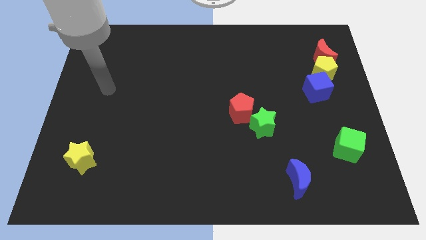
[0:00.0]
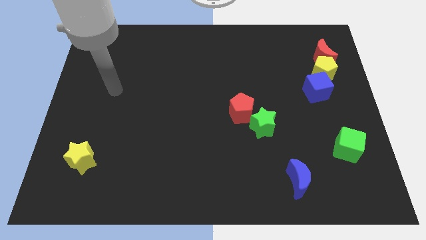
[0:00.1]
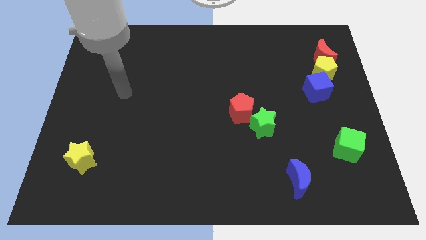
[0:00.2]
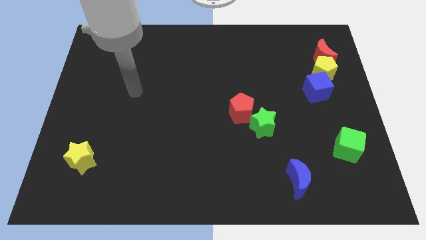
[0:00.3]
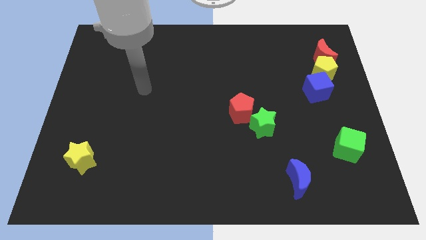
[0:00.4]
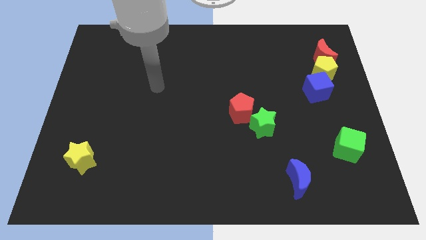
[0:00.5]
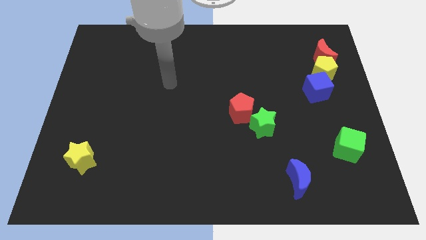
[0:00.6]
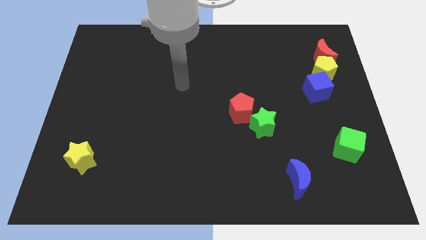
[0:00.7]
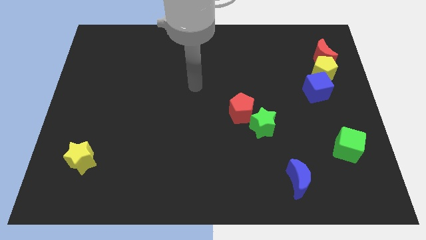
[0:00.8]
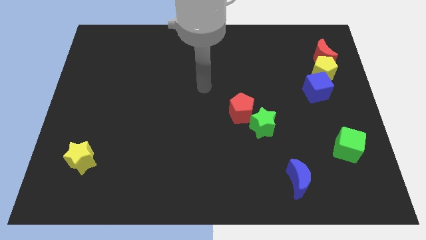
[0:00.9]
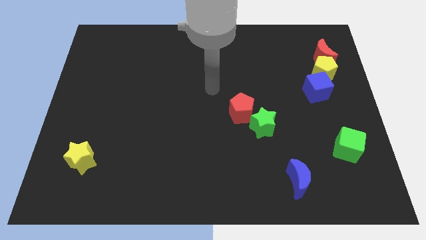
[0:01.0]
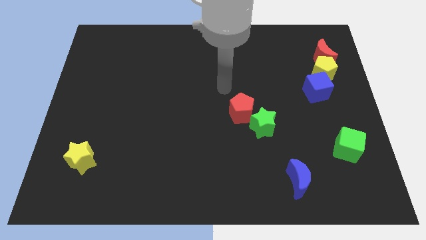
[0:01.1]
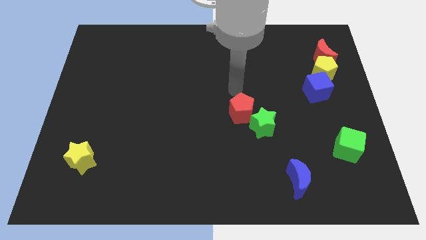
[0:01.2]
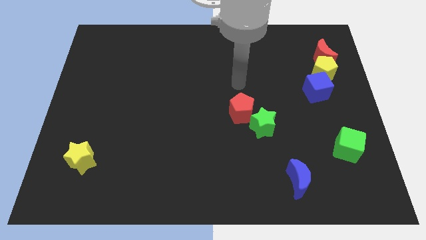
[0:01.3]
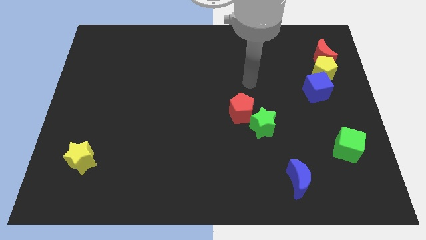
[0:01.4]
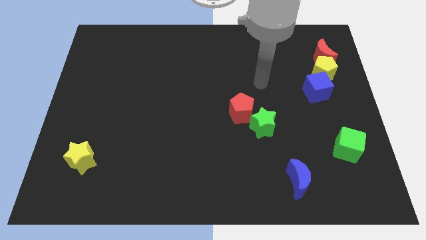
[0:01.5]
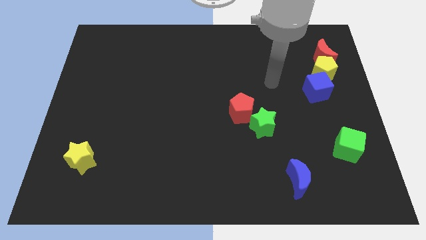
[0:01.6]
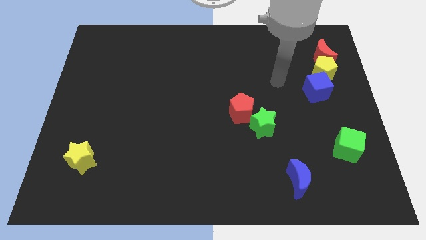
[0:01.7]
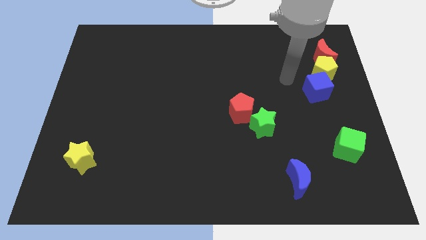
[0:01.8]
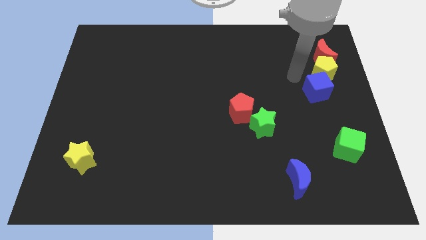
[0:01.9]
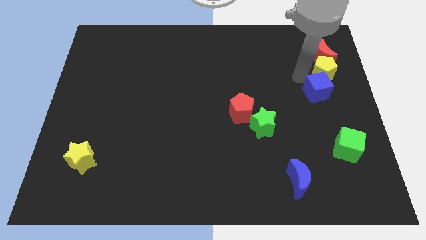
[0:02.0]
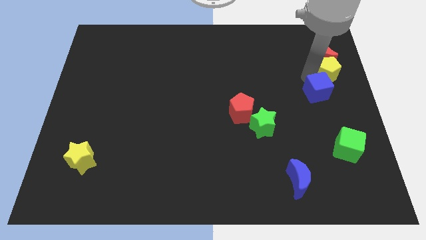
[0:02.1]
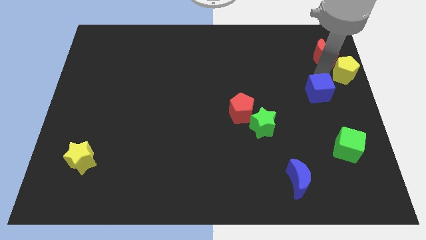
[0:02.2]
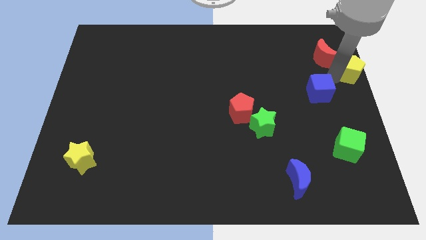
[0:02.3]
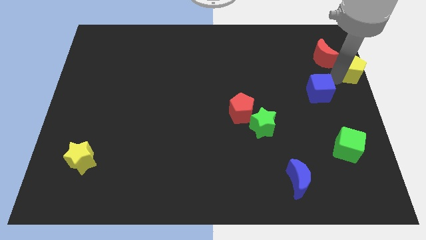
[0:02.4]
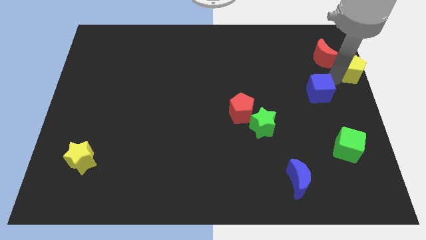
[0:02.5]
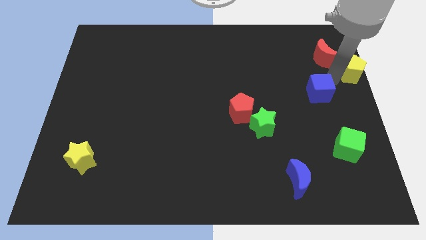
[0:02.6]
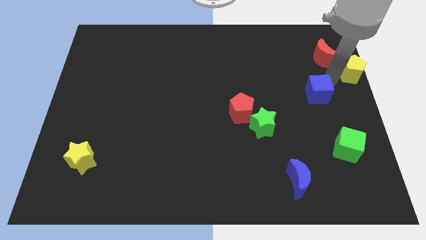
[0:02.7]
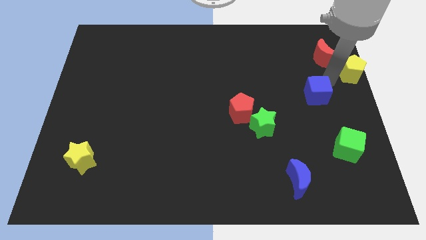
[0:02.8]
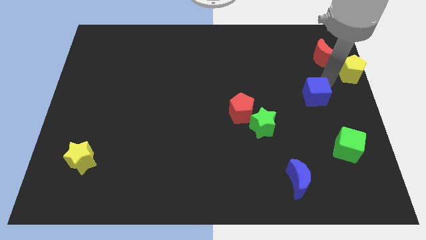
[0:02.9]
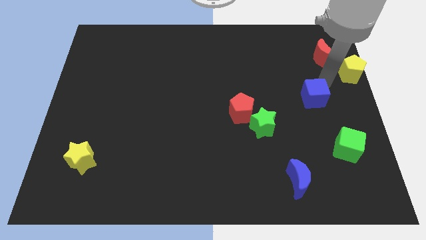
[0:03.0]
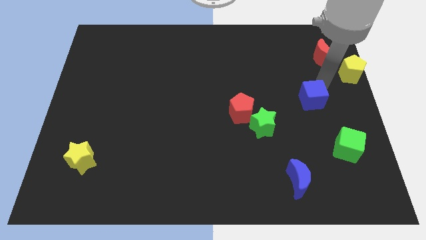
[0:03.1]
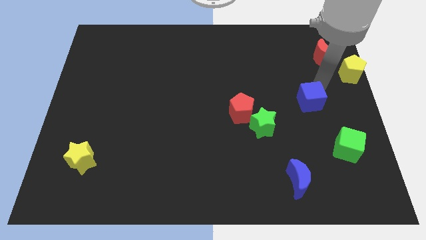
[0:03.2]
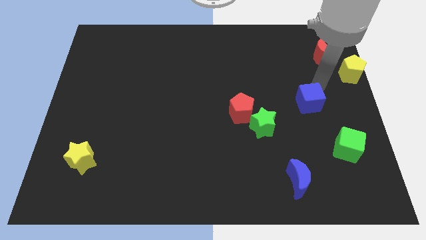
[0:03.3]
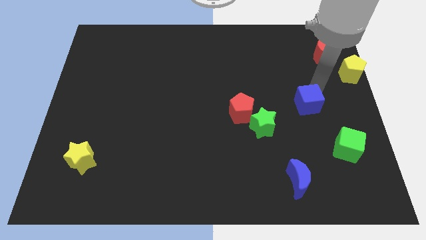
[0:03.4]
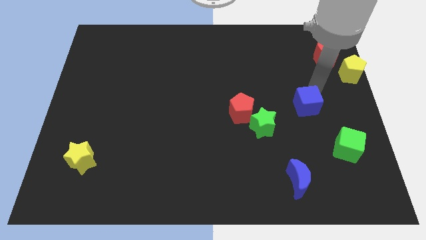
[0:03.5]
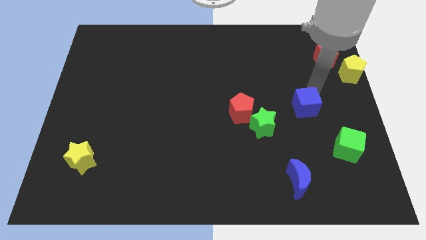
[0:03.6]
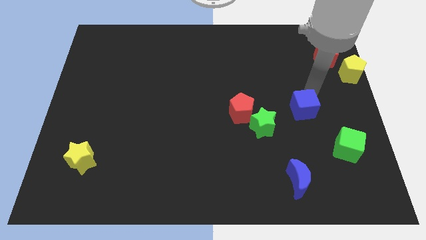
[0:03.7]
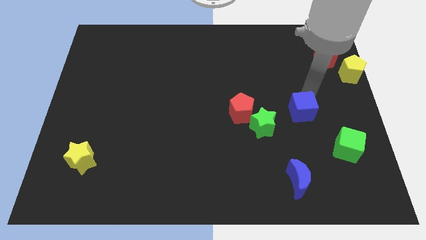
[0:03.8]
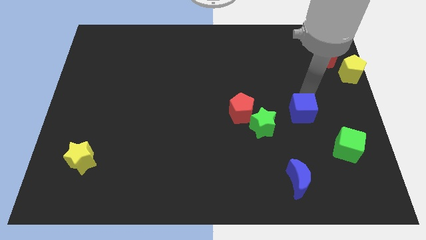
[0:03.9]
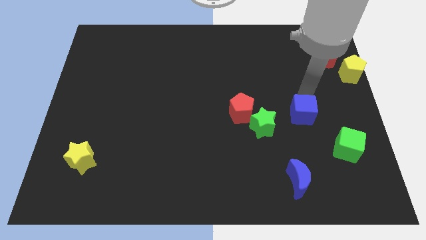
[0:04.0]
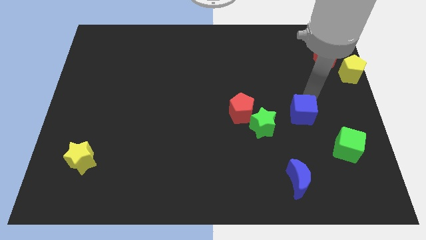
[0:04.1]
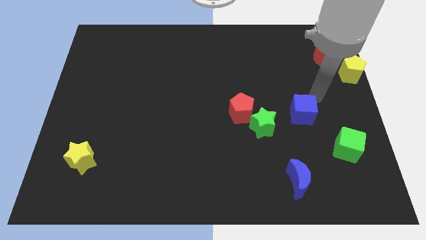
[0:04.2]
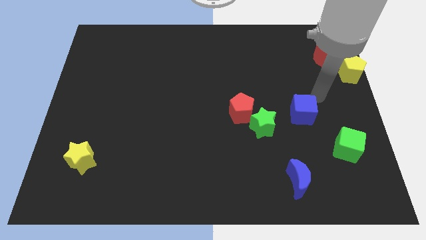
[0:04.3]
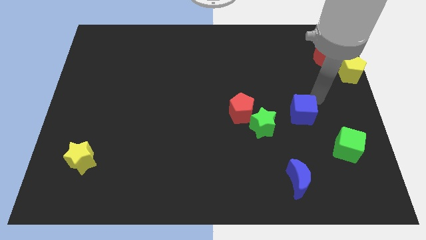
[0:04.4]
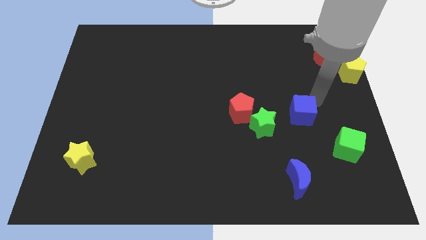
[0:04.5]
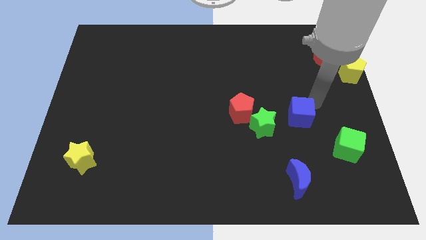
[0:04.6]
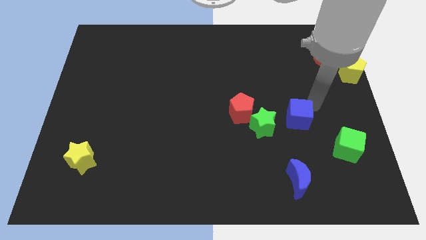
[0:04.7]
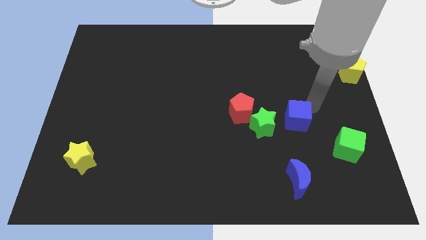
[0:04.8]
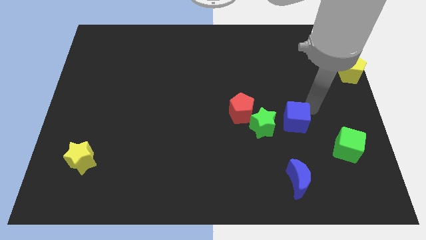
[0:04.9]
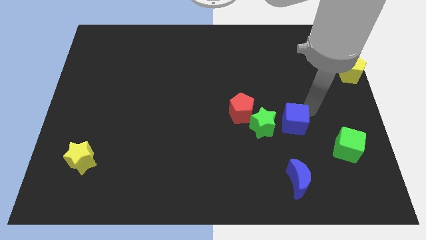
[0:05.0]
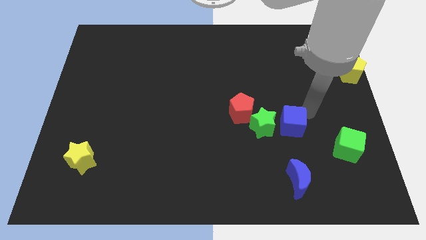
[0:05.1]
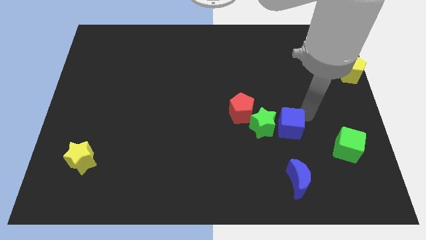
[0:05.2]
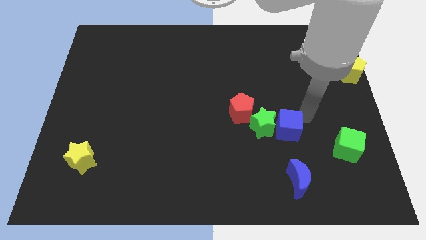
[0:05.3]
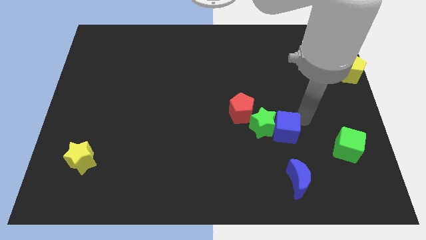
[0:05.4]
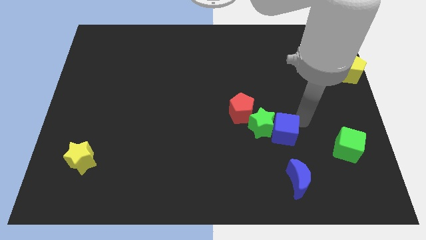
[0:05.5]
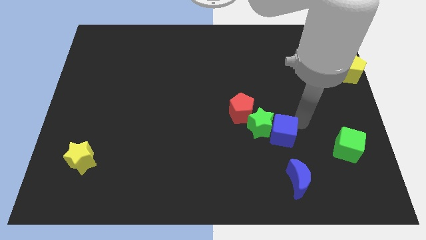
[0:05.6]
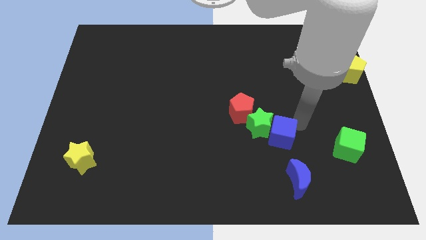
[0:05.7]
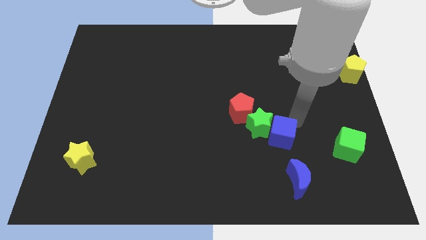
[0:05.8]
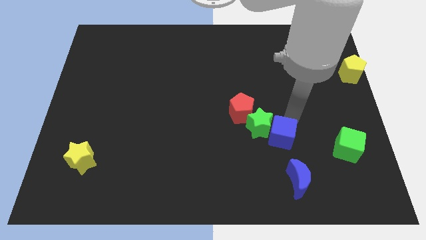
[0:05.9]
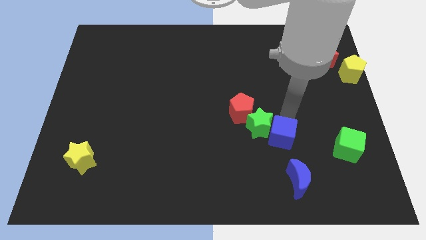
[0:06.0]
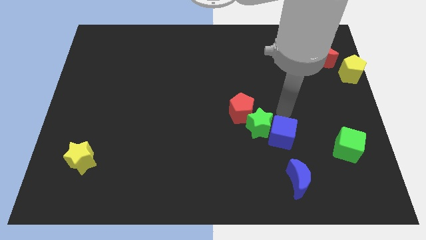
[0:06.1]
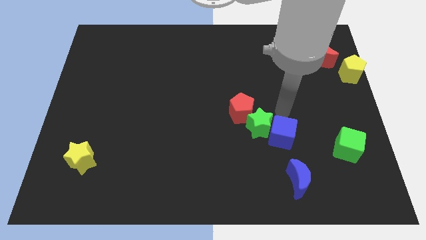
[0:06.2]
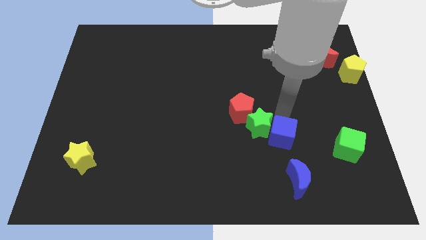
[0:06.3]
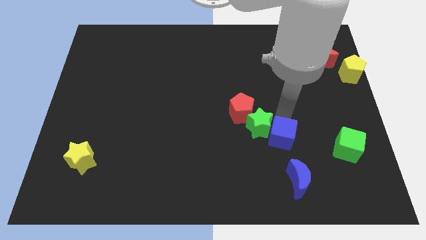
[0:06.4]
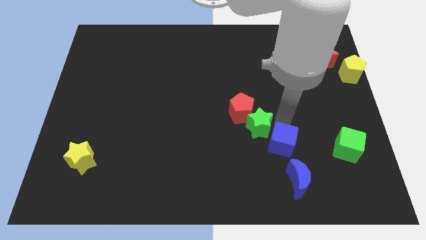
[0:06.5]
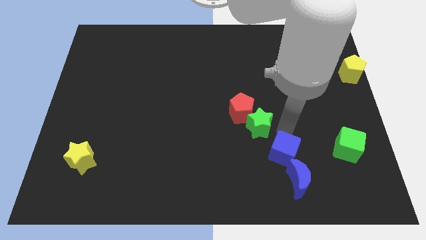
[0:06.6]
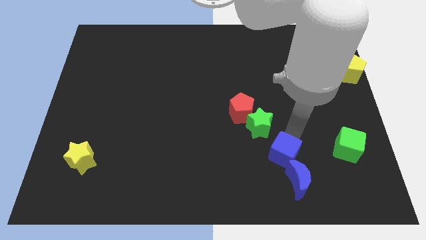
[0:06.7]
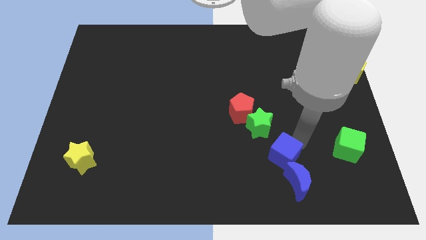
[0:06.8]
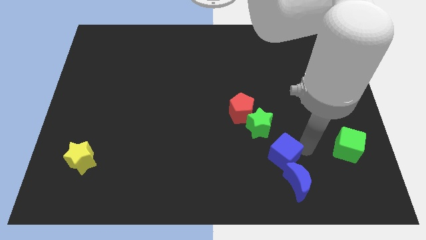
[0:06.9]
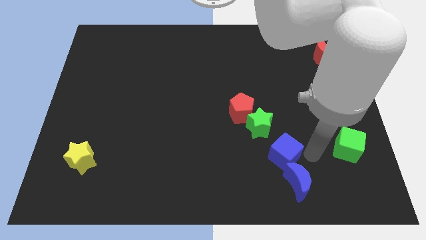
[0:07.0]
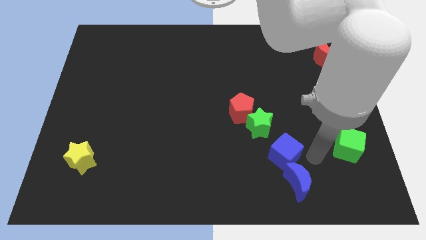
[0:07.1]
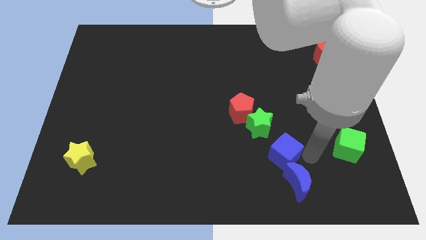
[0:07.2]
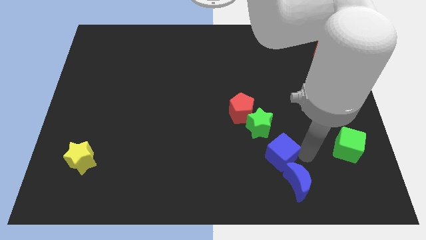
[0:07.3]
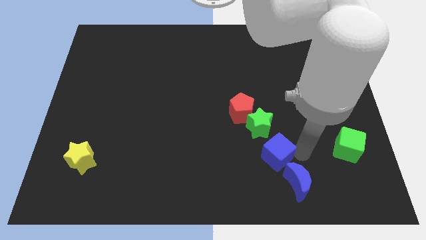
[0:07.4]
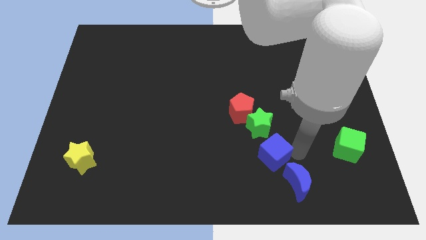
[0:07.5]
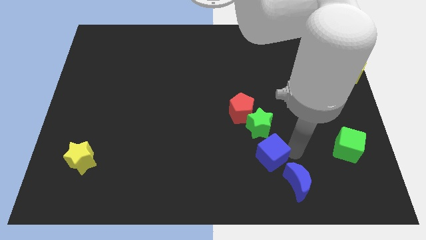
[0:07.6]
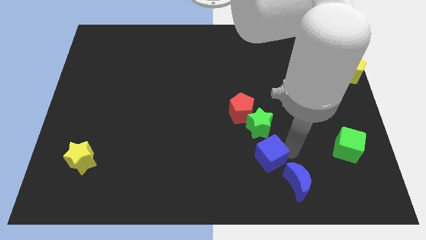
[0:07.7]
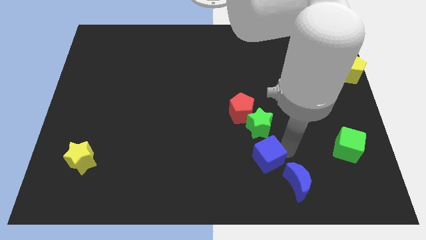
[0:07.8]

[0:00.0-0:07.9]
put the blue cube to the bottom of the red pentagon
